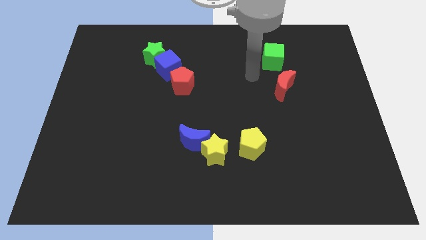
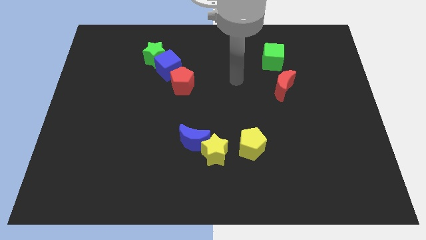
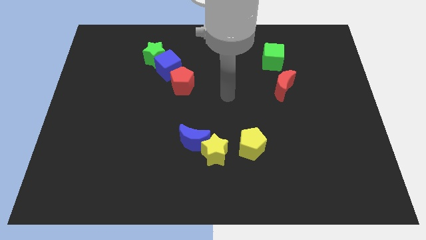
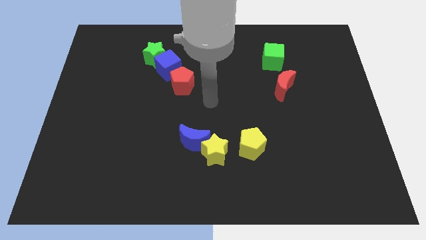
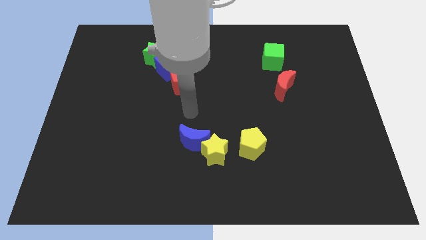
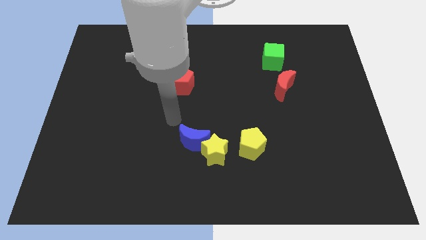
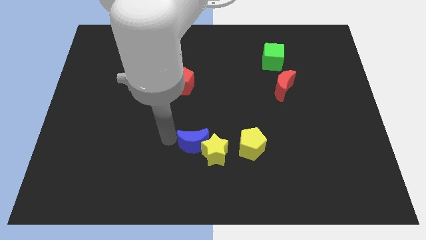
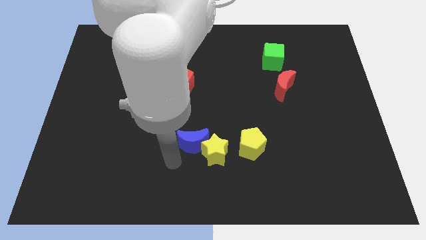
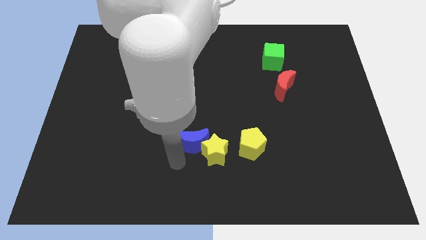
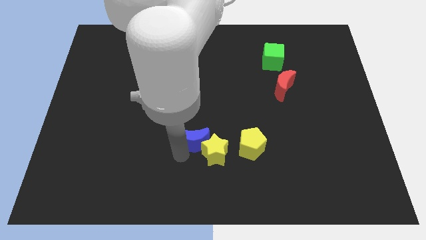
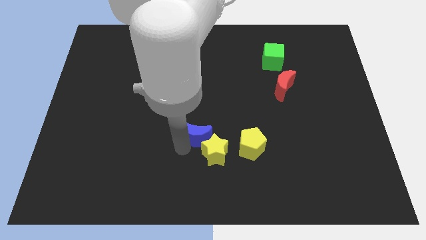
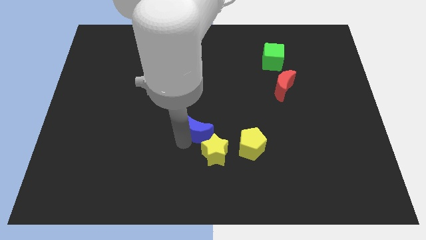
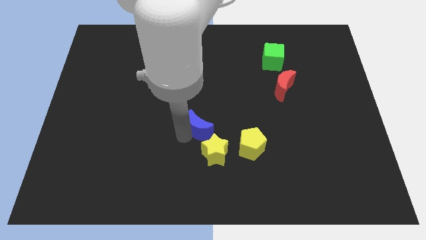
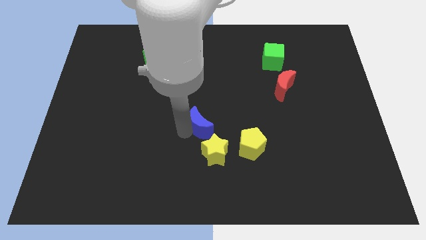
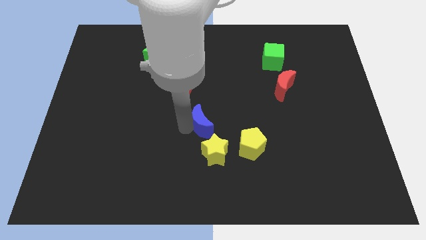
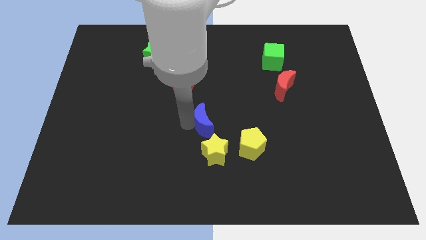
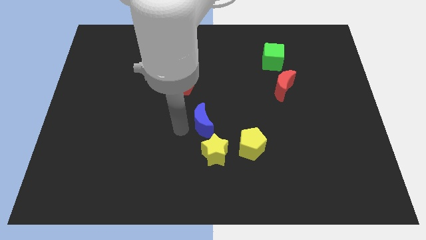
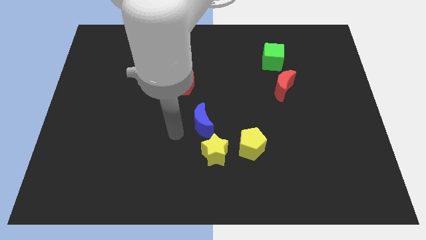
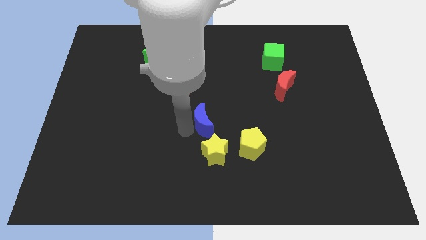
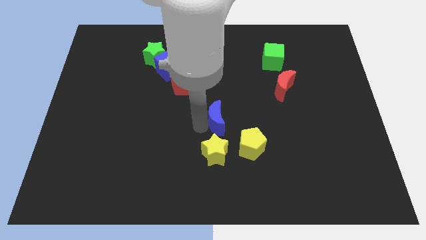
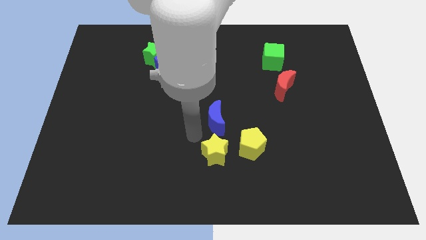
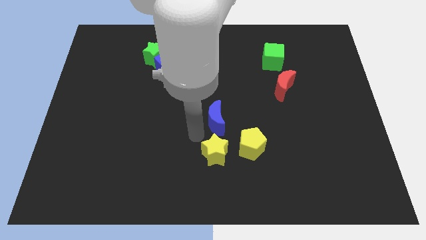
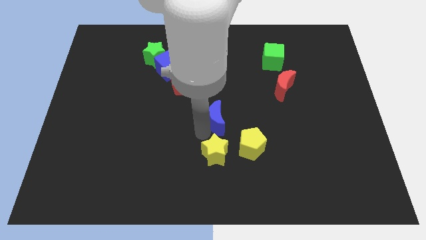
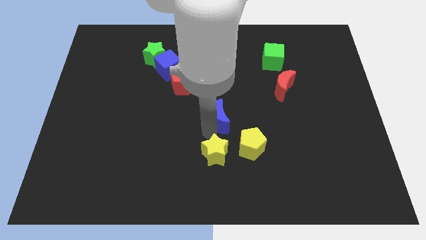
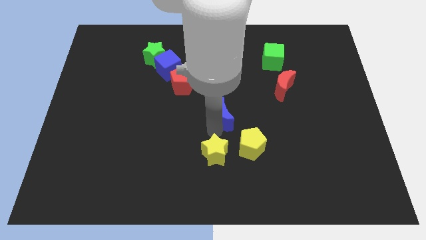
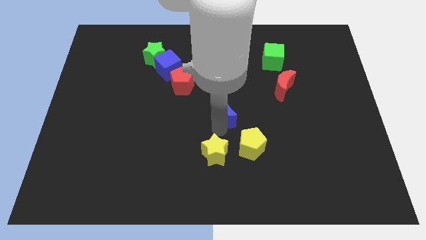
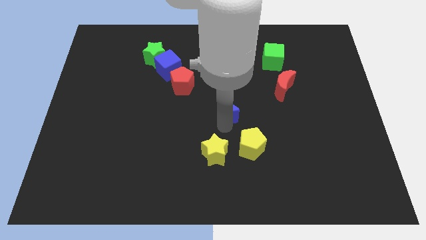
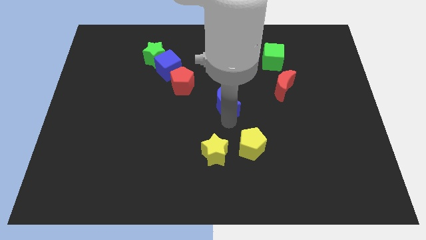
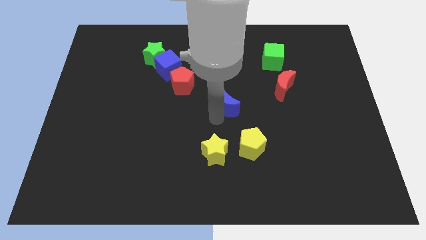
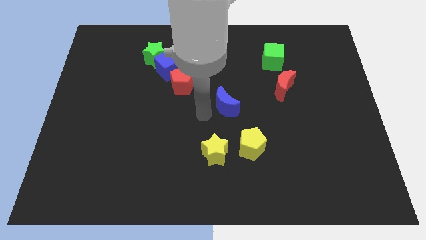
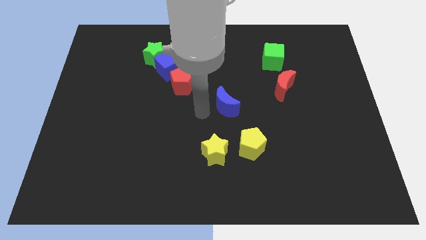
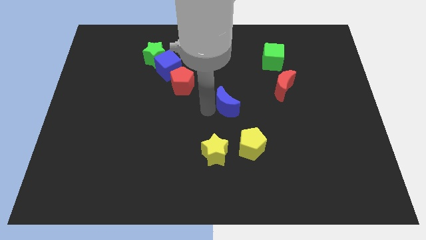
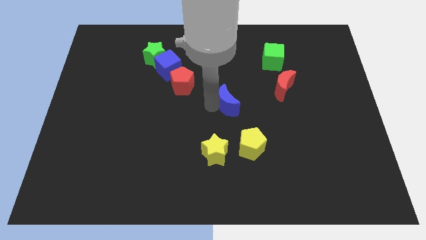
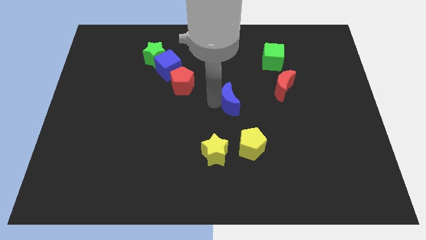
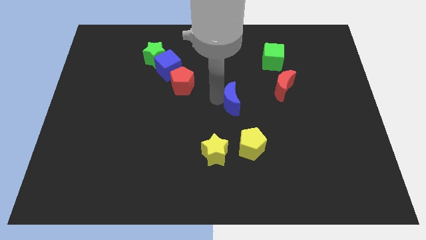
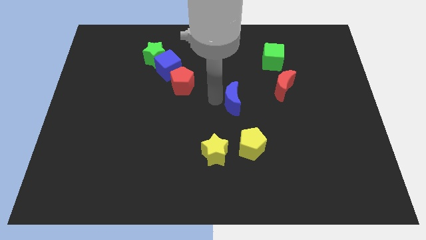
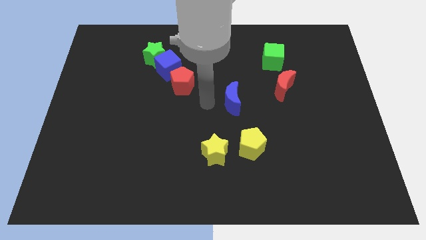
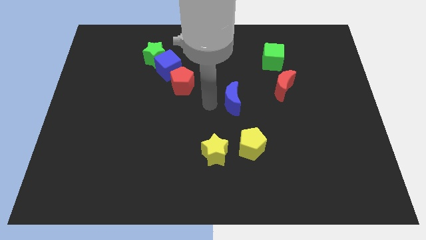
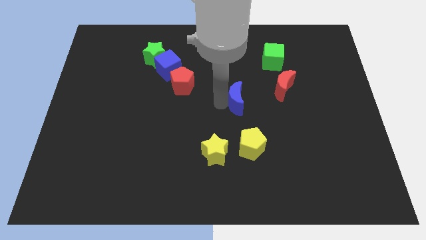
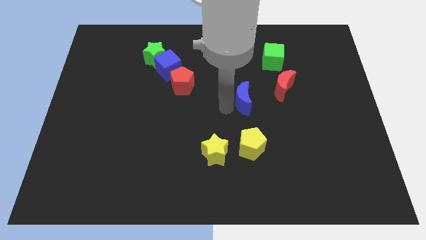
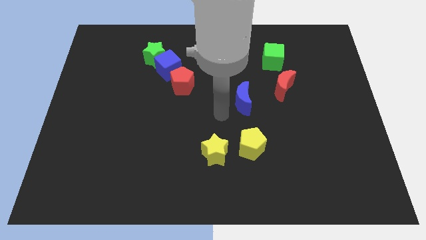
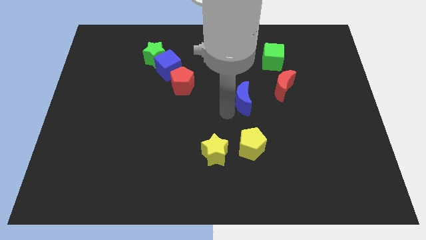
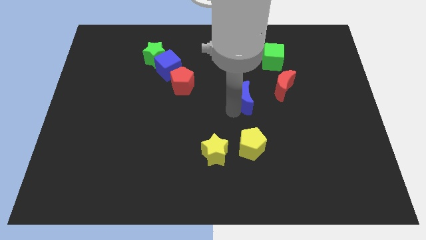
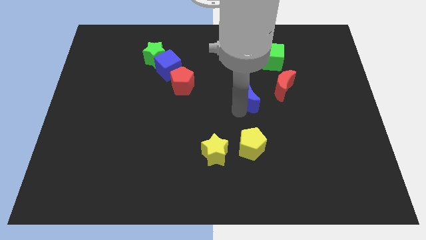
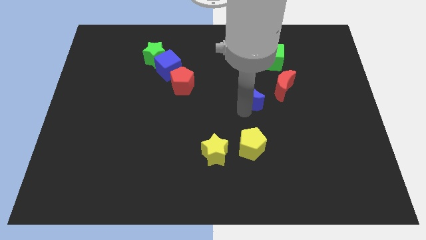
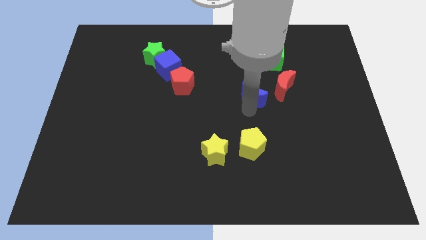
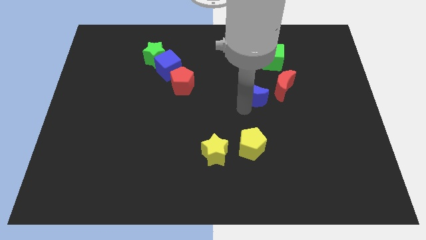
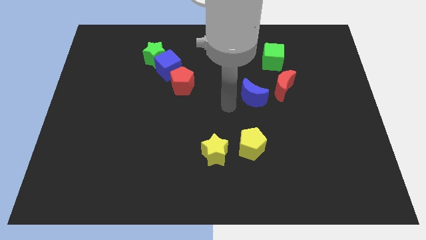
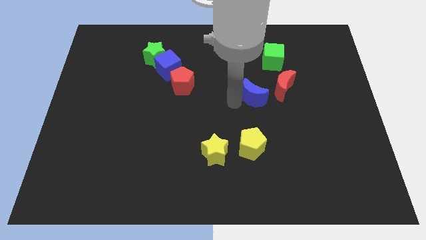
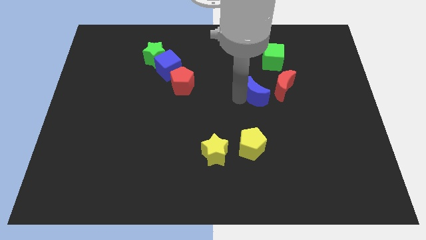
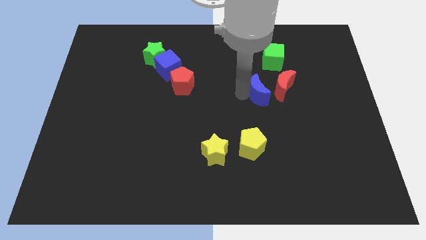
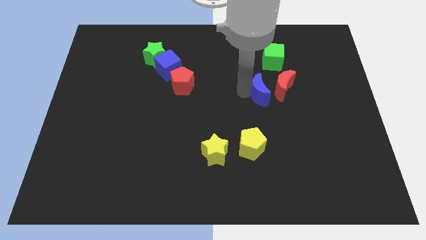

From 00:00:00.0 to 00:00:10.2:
put the blue moon towards the red moon

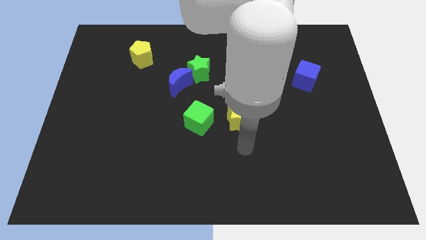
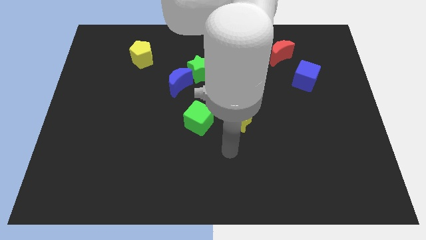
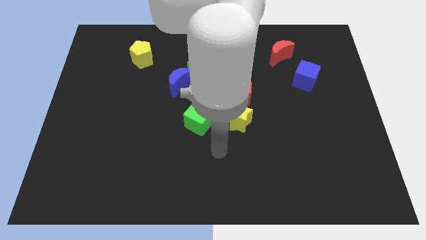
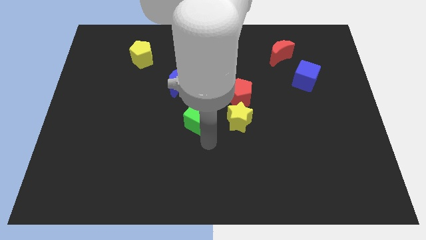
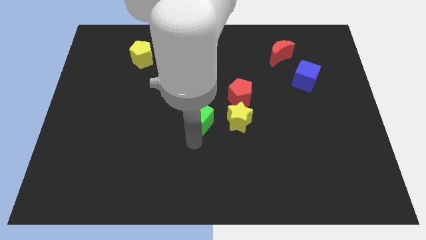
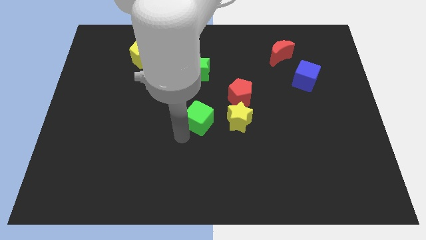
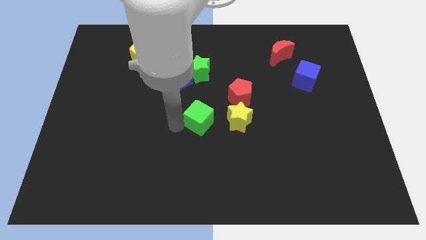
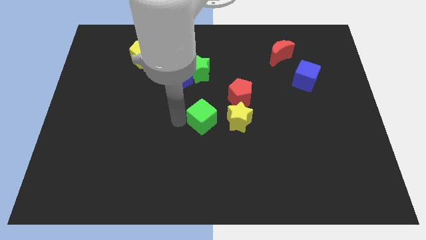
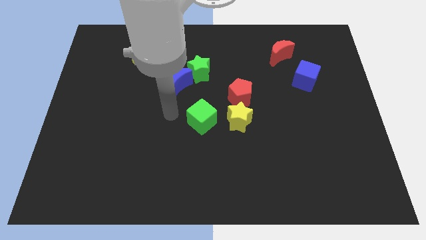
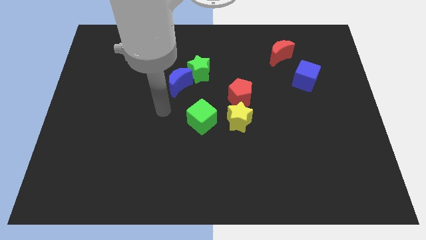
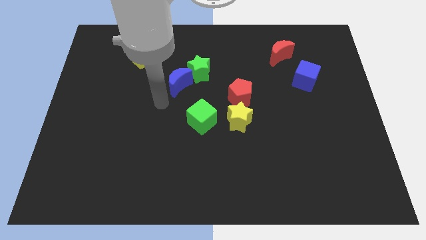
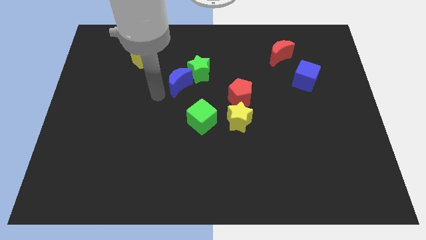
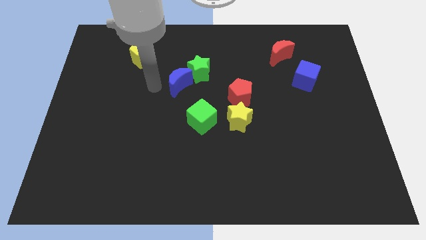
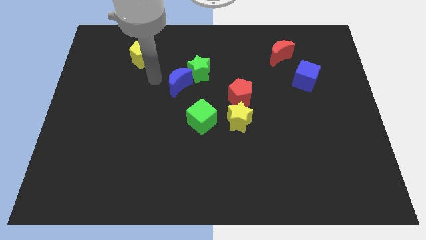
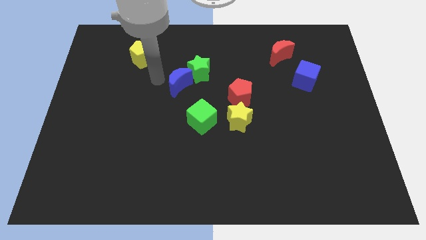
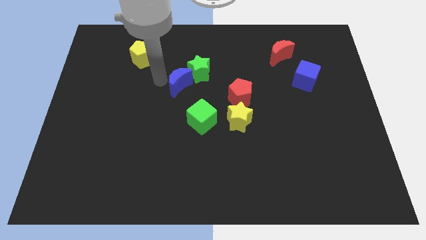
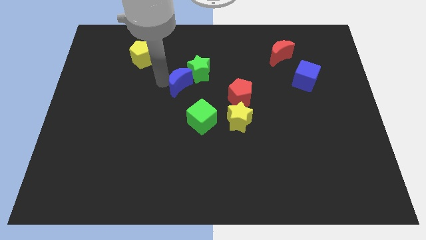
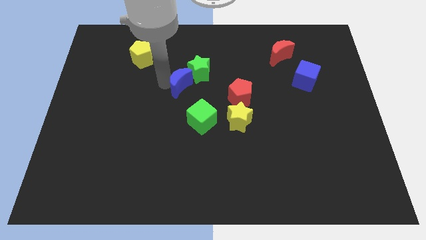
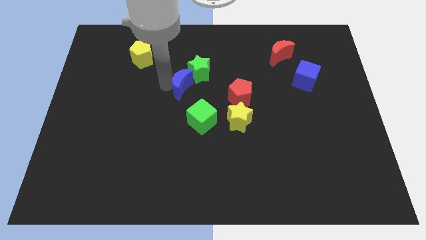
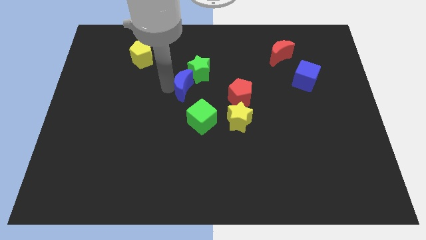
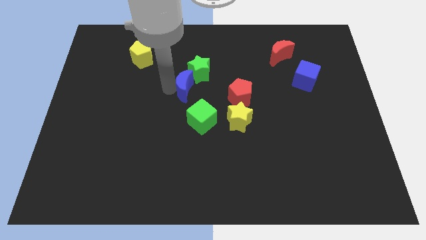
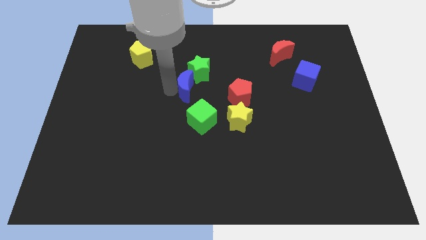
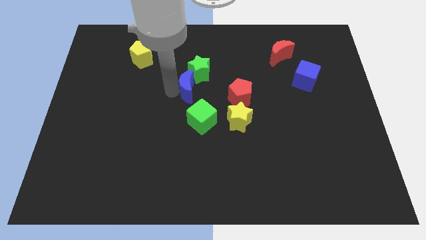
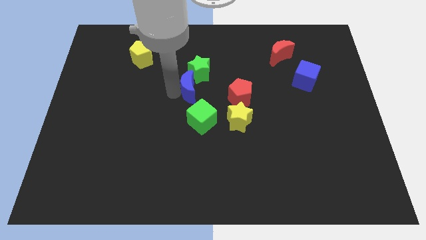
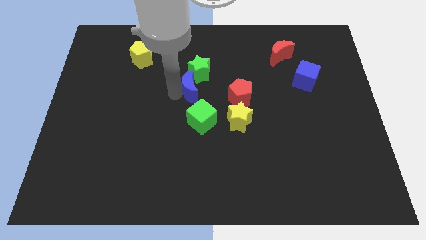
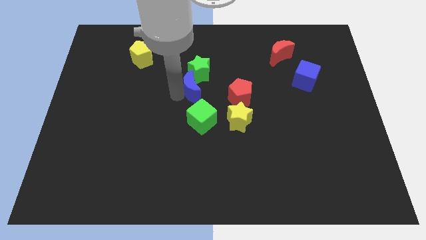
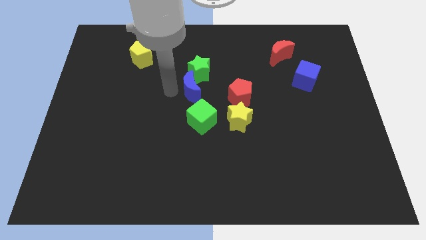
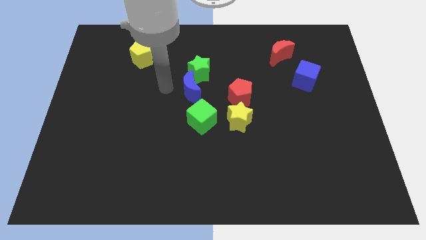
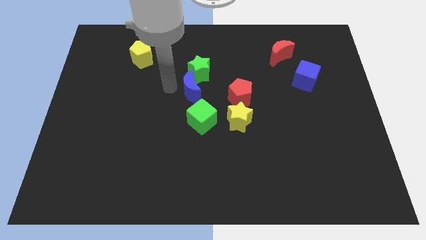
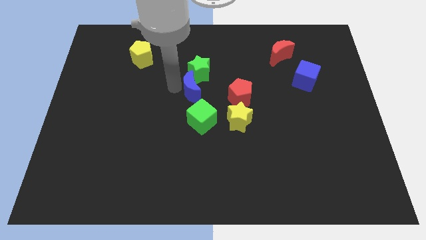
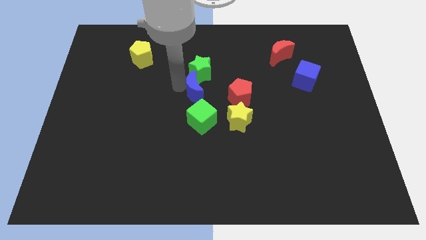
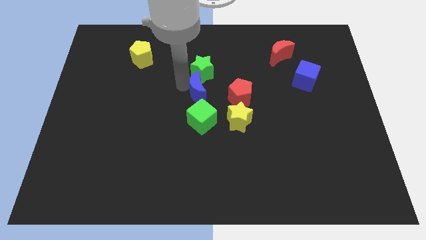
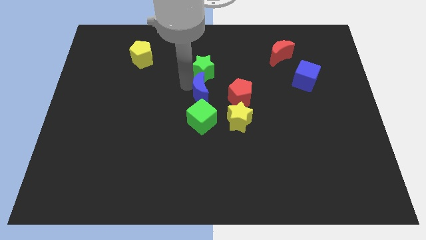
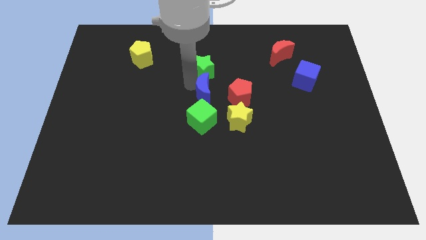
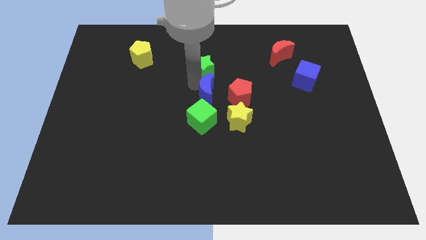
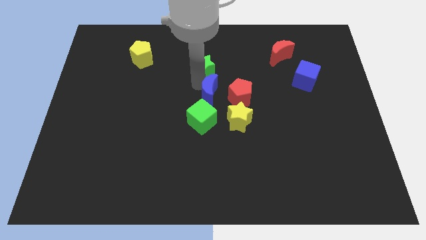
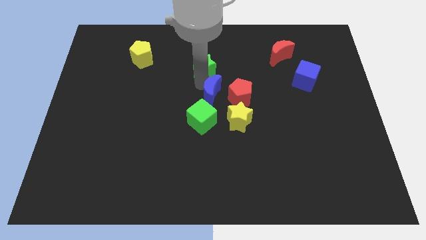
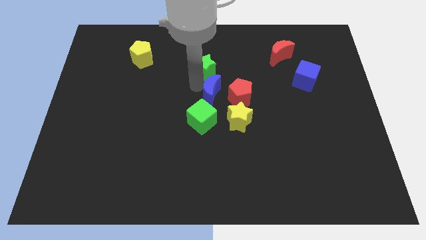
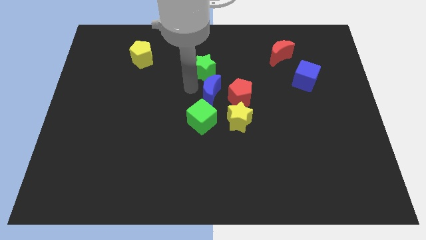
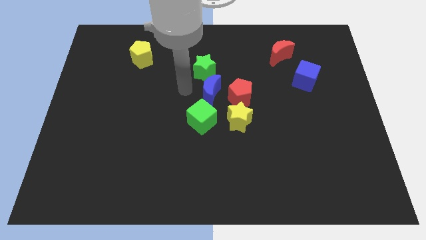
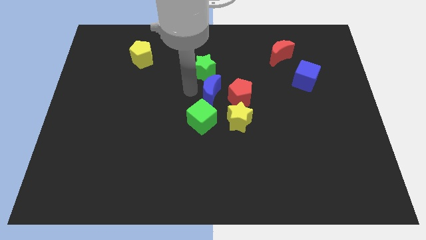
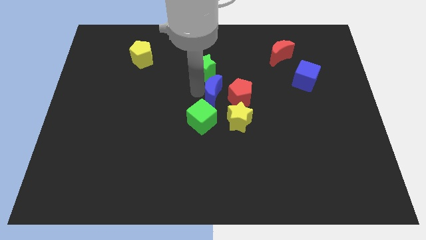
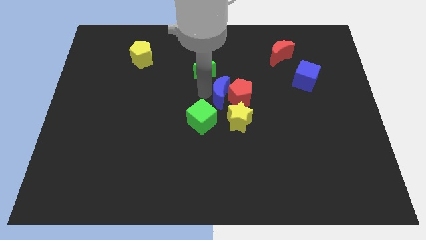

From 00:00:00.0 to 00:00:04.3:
push the blue moon to the red pentagon
